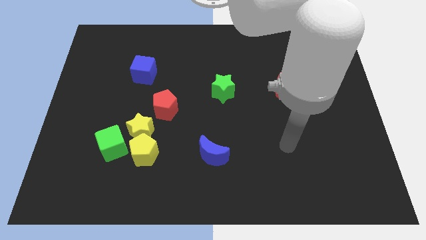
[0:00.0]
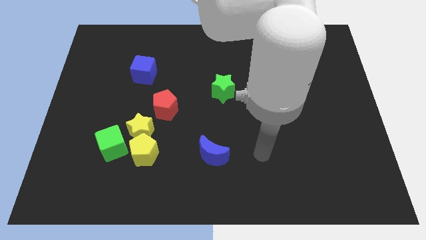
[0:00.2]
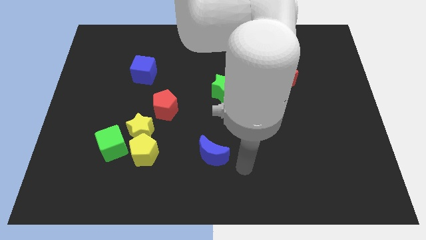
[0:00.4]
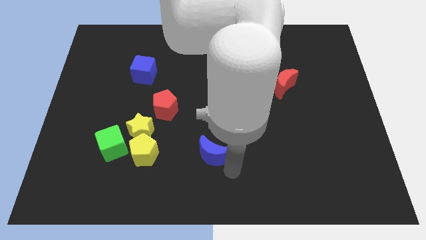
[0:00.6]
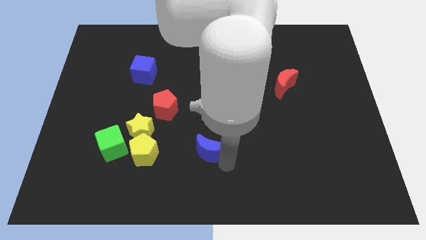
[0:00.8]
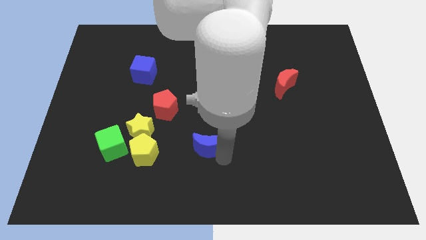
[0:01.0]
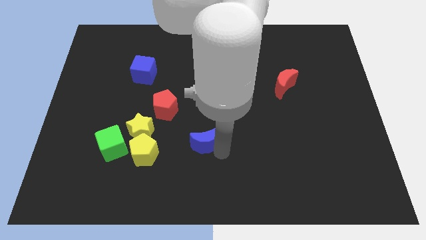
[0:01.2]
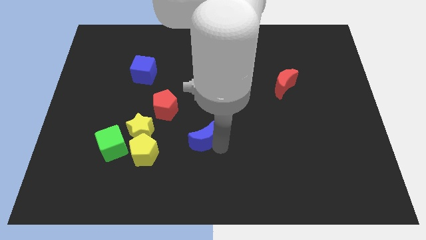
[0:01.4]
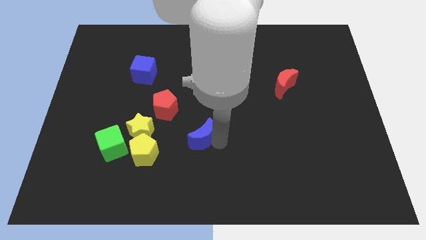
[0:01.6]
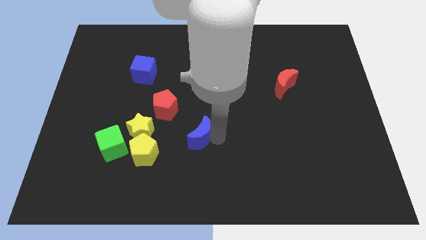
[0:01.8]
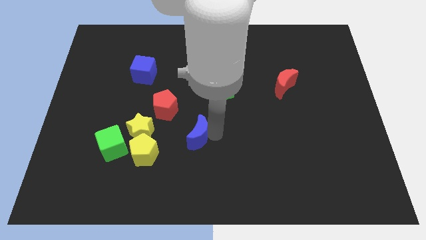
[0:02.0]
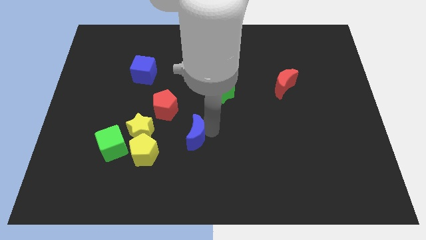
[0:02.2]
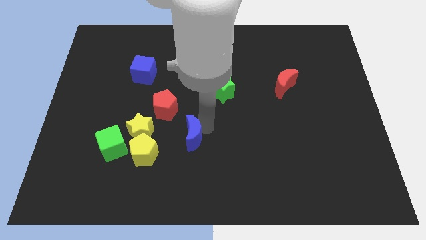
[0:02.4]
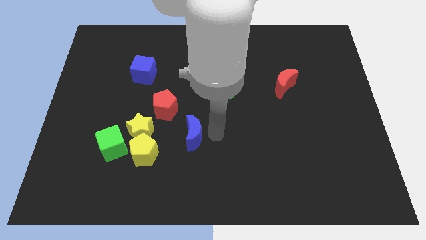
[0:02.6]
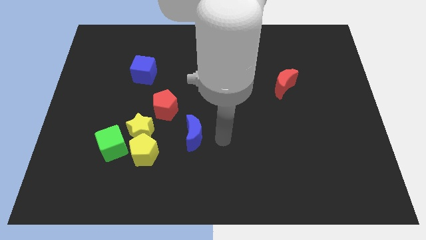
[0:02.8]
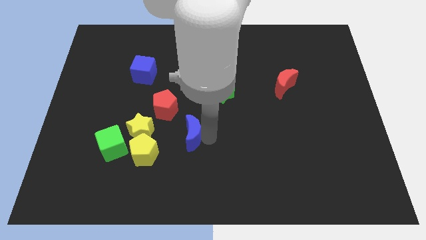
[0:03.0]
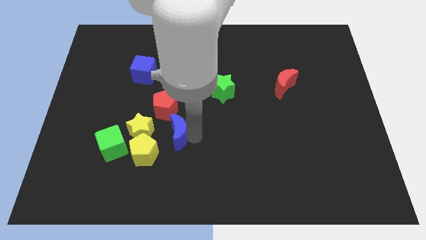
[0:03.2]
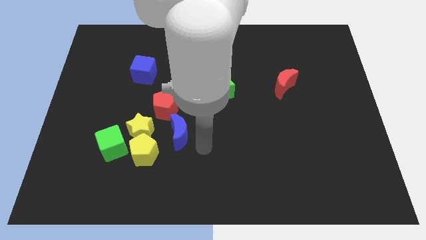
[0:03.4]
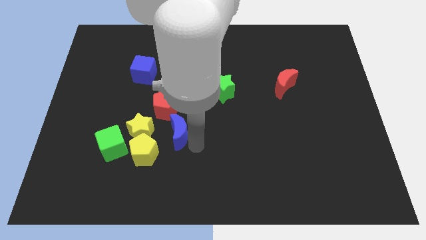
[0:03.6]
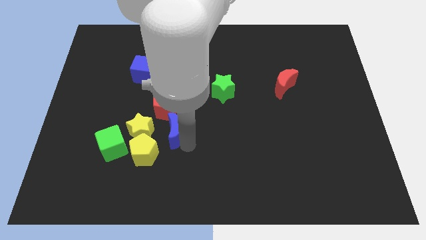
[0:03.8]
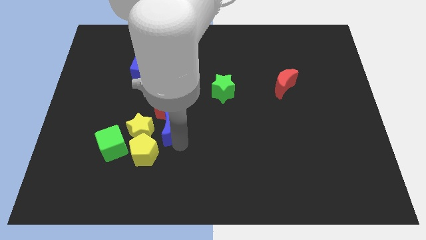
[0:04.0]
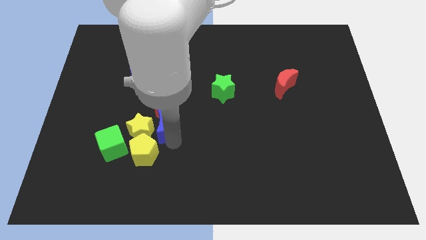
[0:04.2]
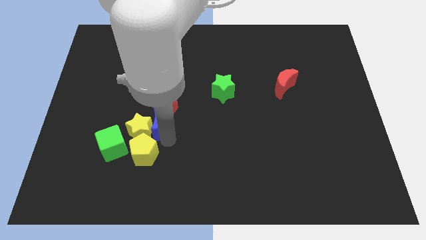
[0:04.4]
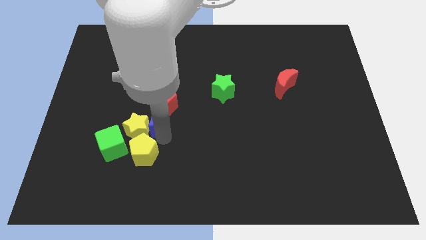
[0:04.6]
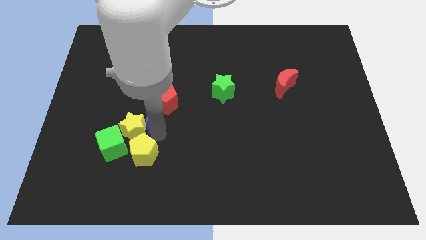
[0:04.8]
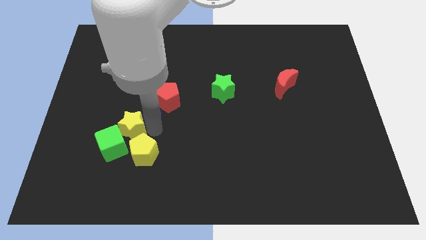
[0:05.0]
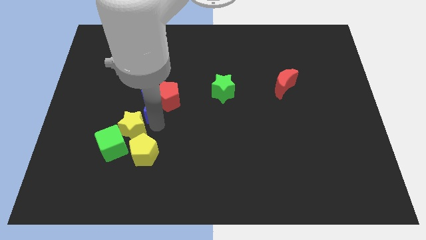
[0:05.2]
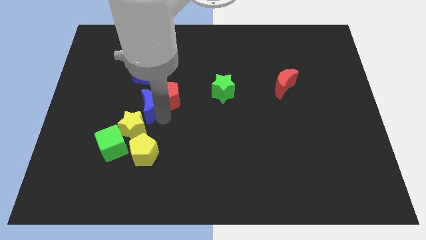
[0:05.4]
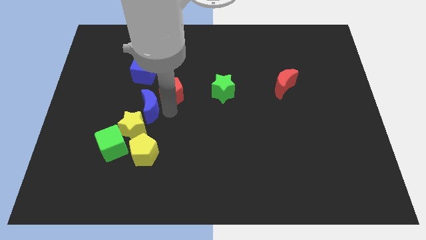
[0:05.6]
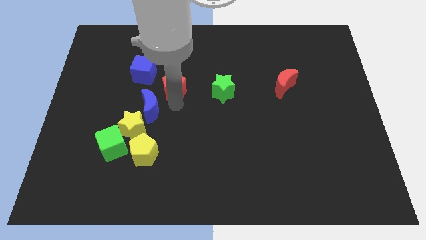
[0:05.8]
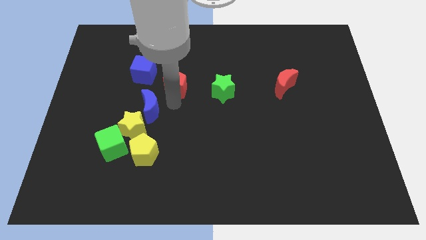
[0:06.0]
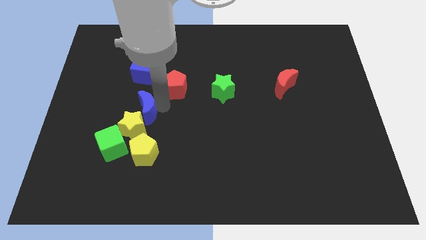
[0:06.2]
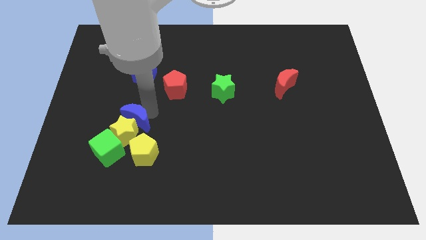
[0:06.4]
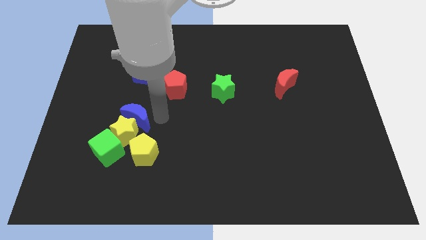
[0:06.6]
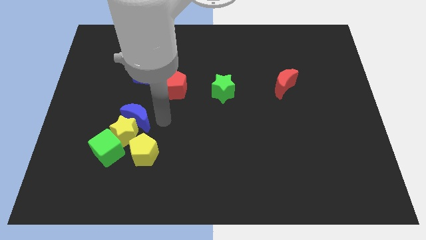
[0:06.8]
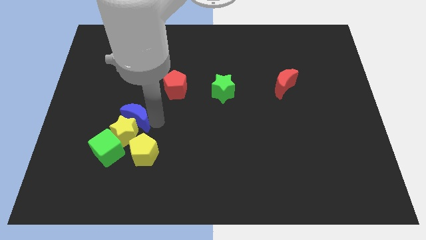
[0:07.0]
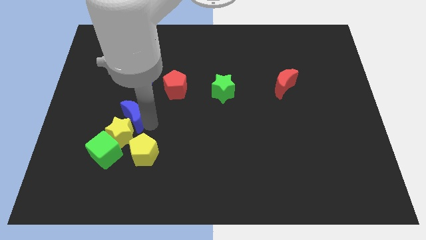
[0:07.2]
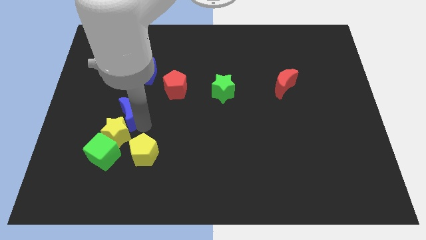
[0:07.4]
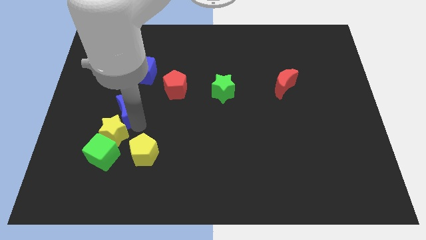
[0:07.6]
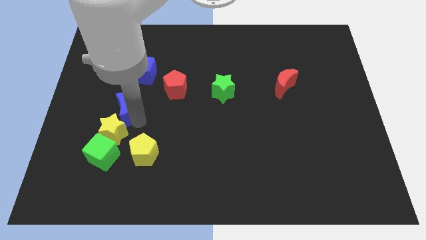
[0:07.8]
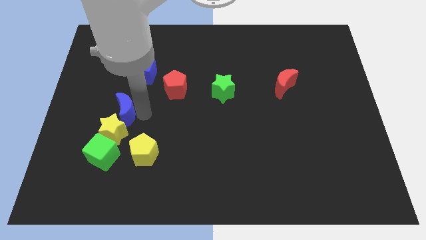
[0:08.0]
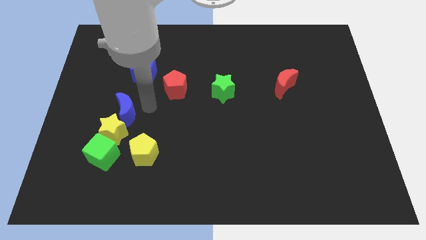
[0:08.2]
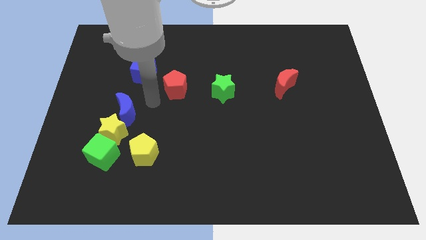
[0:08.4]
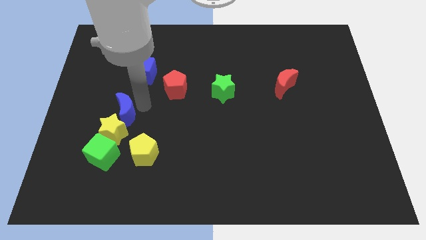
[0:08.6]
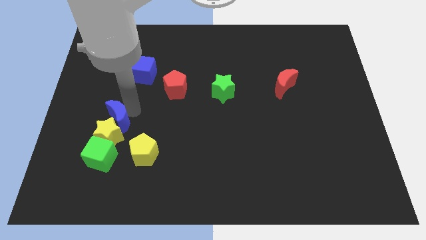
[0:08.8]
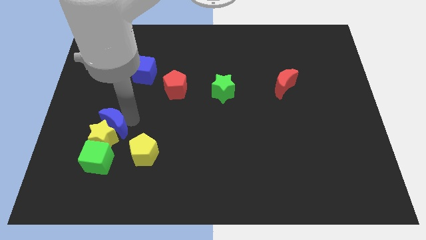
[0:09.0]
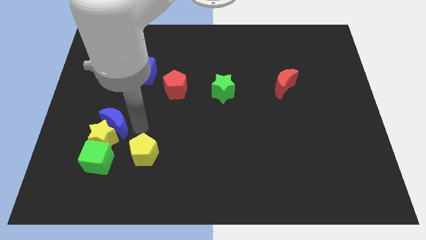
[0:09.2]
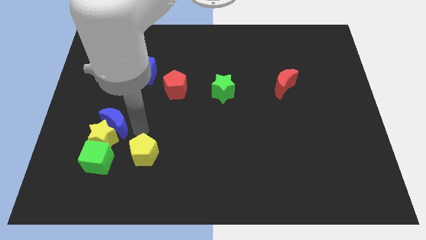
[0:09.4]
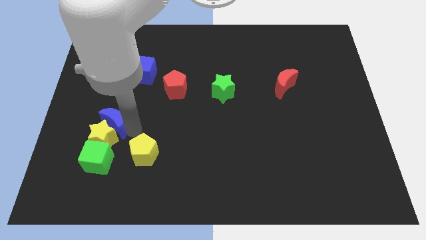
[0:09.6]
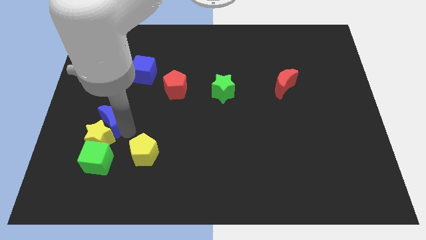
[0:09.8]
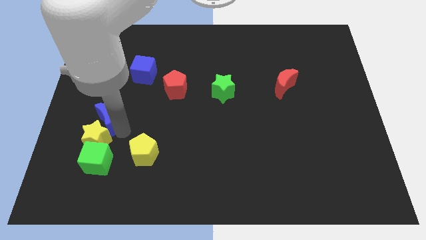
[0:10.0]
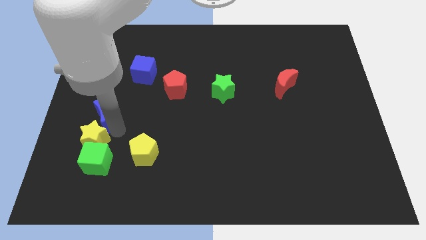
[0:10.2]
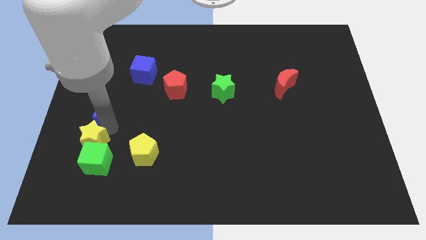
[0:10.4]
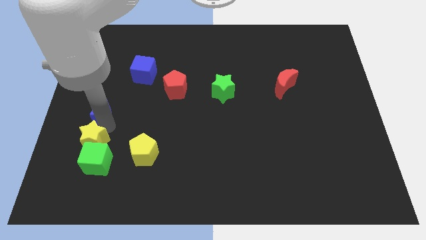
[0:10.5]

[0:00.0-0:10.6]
push the blue moon to the left side of the board

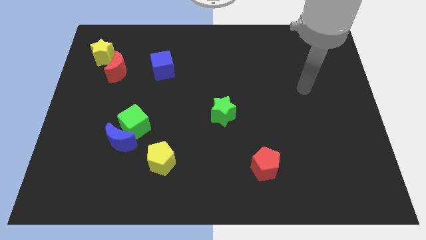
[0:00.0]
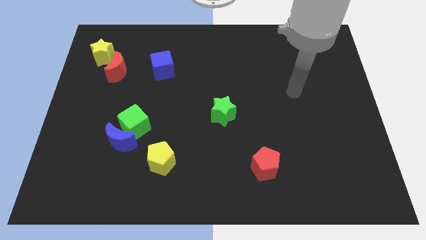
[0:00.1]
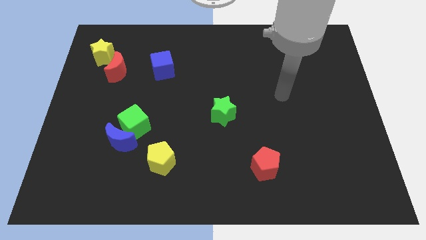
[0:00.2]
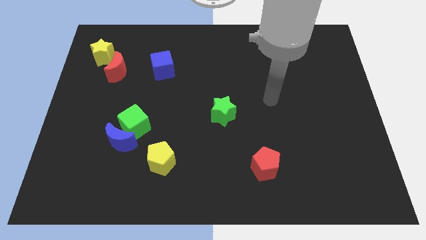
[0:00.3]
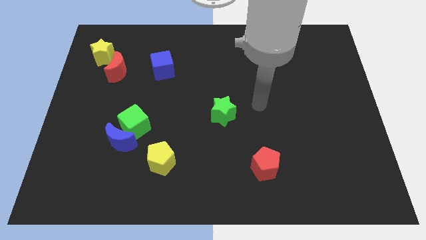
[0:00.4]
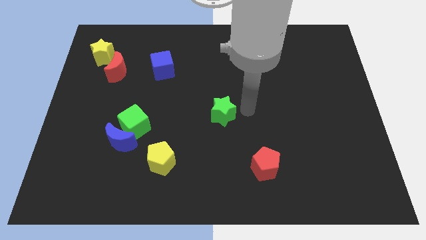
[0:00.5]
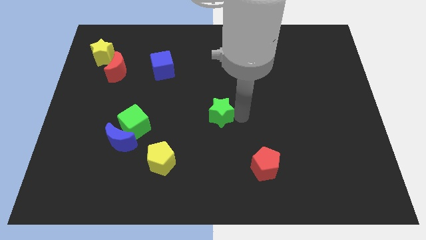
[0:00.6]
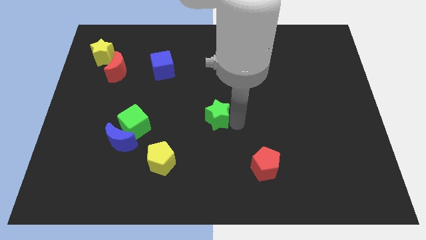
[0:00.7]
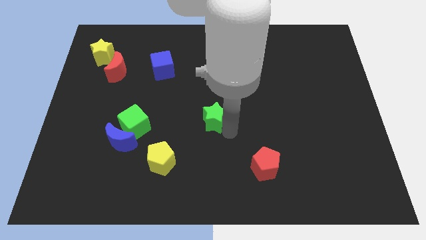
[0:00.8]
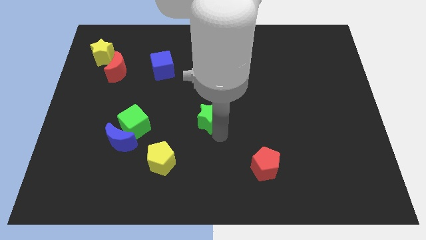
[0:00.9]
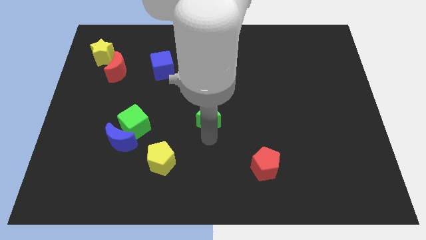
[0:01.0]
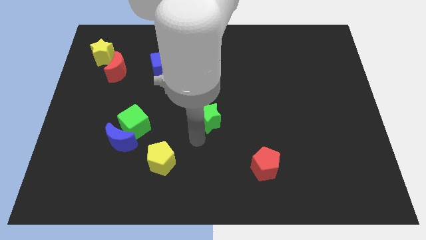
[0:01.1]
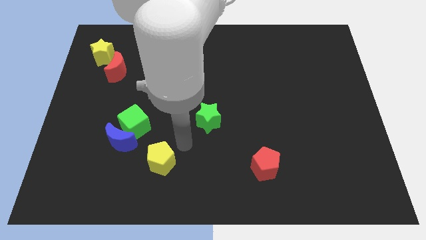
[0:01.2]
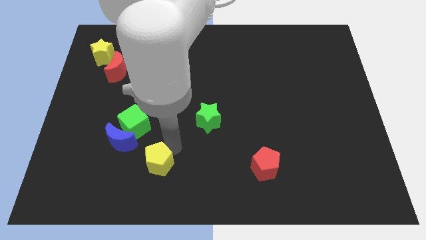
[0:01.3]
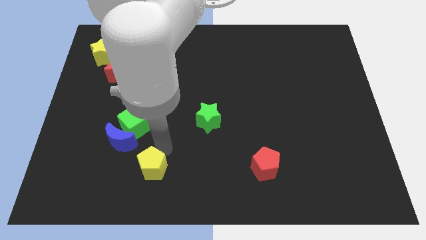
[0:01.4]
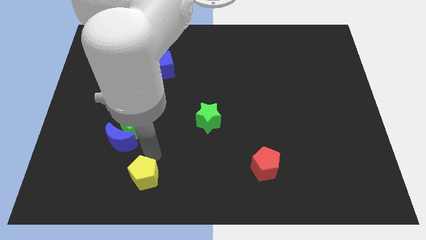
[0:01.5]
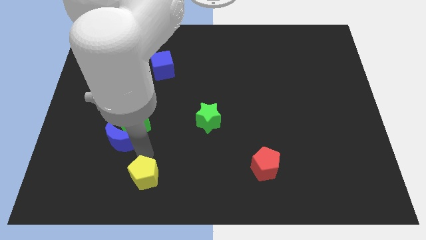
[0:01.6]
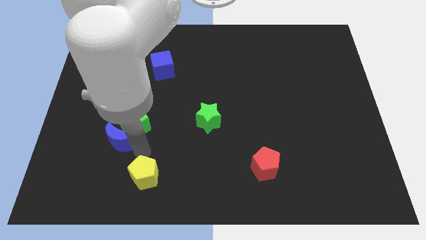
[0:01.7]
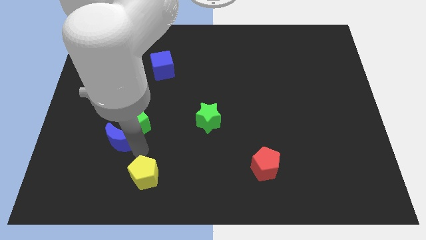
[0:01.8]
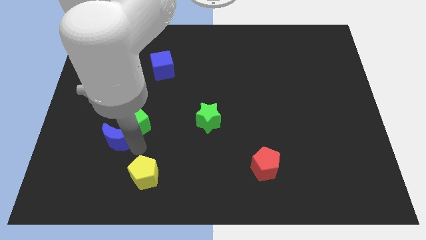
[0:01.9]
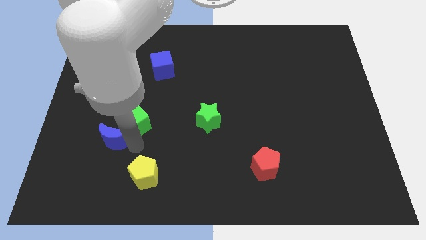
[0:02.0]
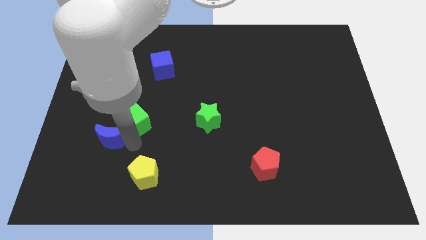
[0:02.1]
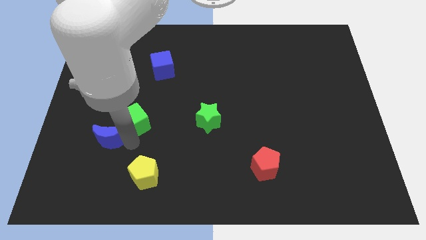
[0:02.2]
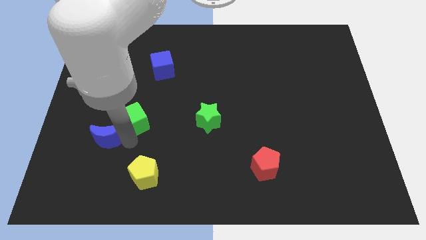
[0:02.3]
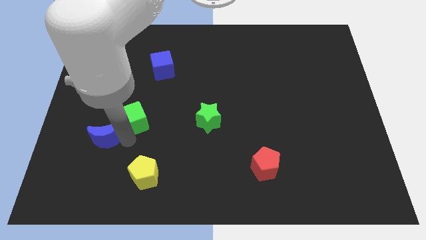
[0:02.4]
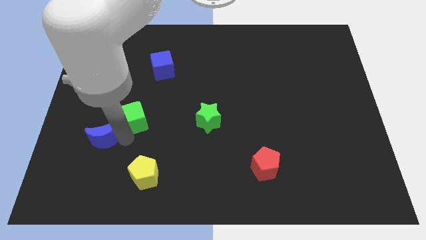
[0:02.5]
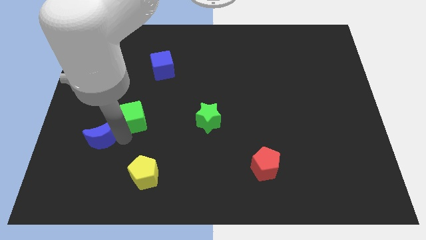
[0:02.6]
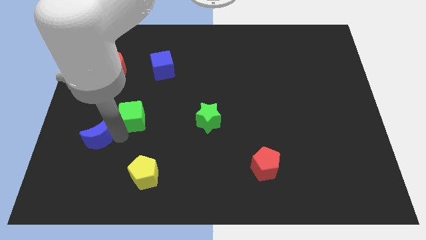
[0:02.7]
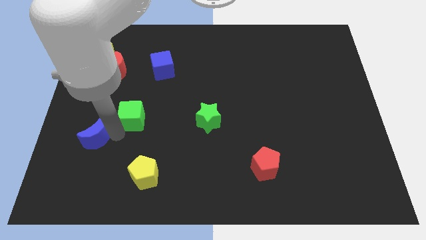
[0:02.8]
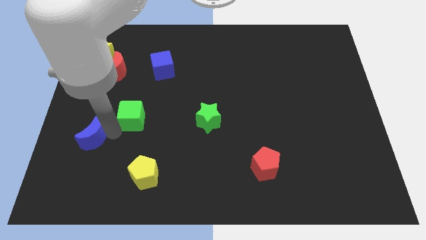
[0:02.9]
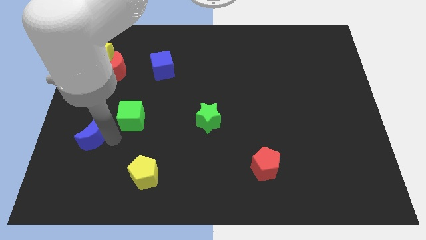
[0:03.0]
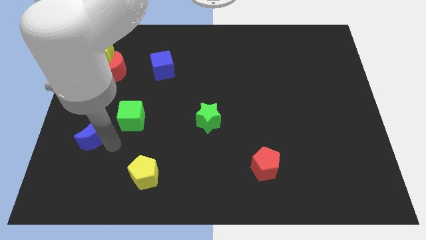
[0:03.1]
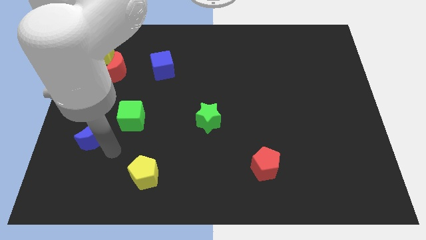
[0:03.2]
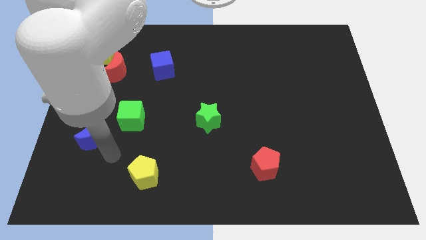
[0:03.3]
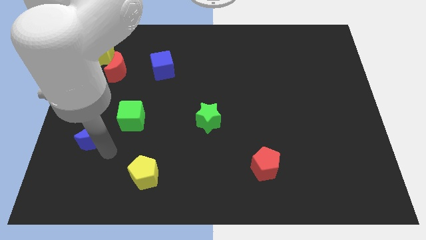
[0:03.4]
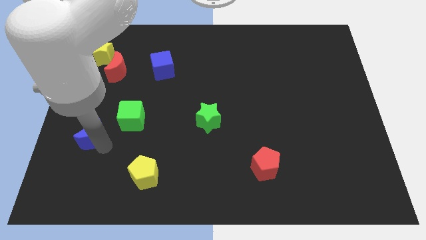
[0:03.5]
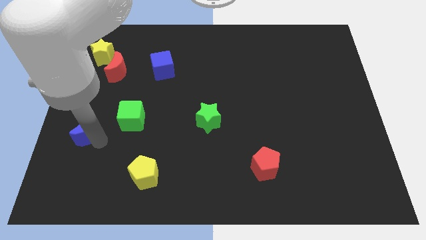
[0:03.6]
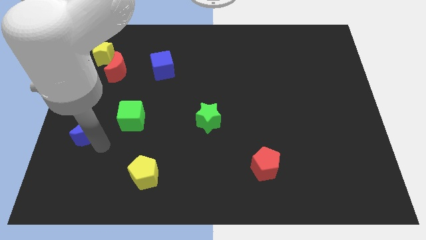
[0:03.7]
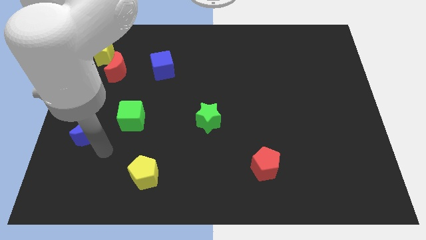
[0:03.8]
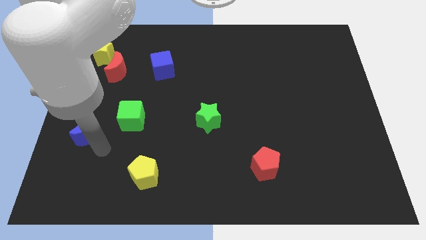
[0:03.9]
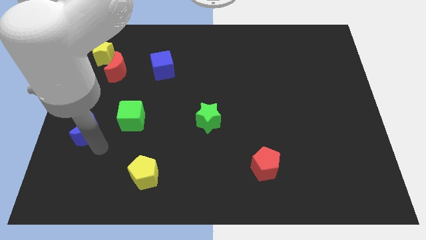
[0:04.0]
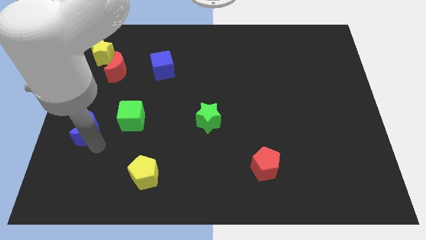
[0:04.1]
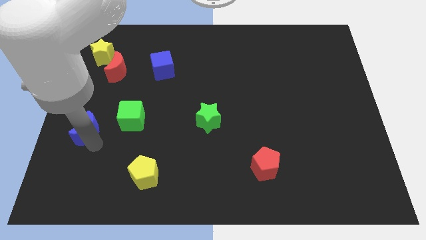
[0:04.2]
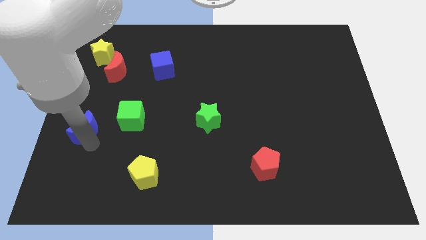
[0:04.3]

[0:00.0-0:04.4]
put the blue moon to the center left
